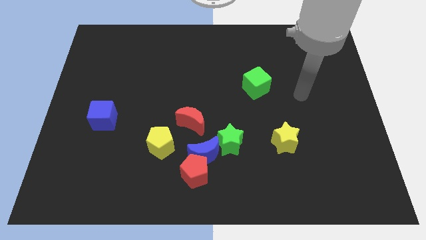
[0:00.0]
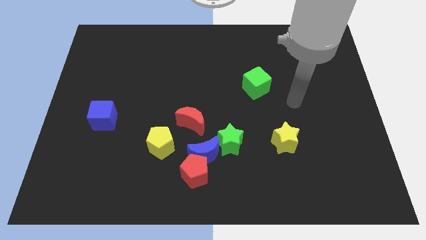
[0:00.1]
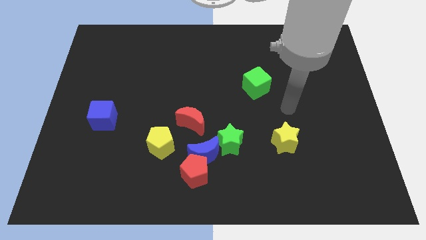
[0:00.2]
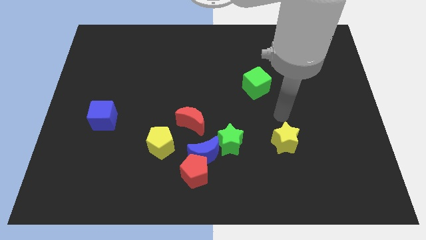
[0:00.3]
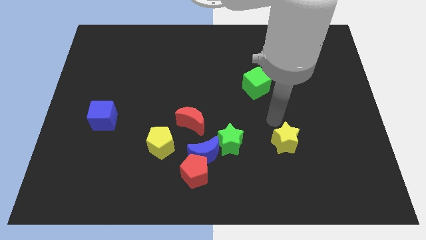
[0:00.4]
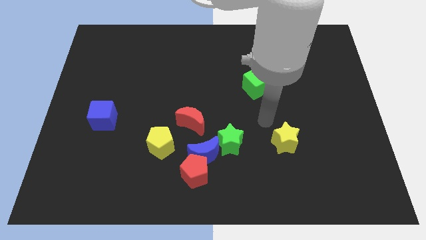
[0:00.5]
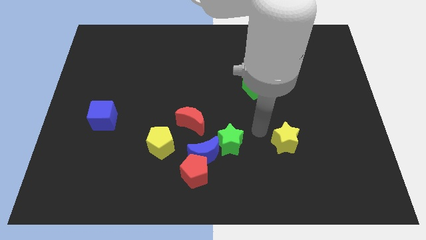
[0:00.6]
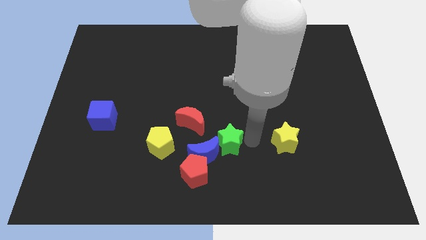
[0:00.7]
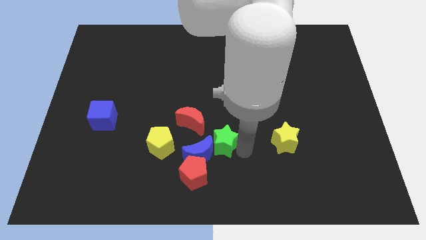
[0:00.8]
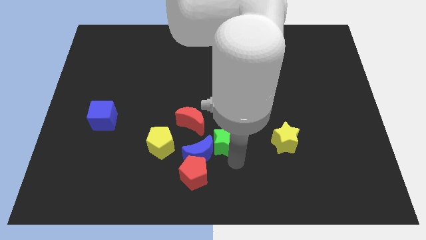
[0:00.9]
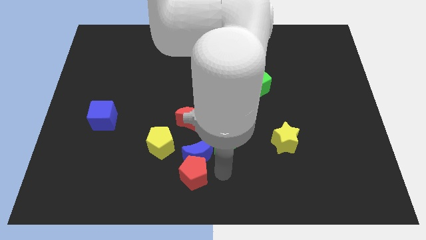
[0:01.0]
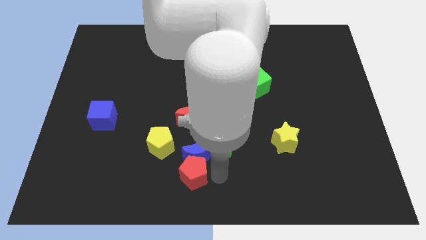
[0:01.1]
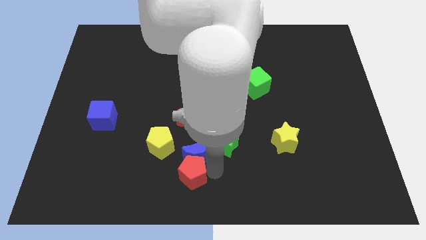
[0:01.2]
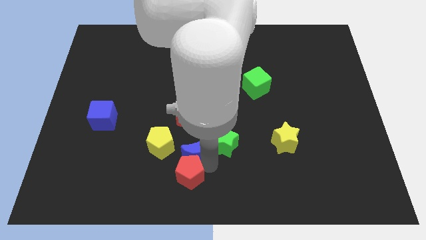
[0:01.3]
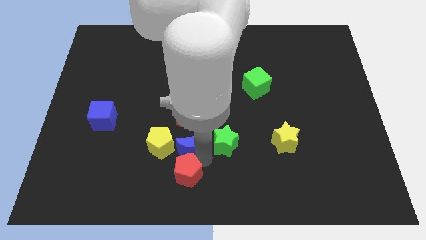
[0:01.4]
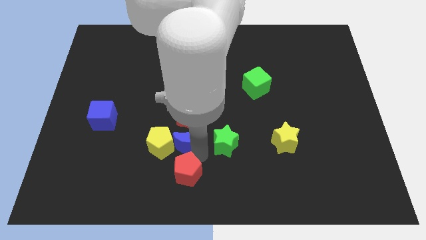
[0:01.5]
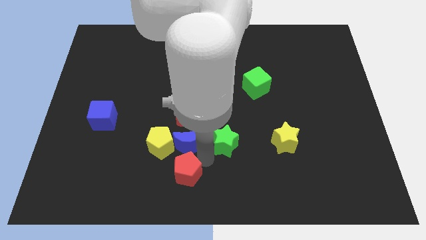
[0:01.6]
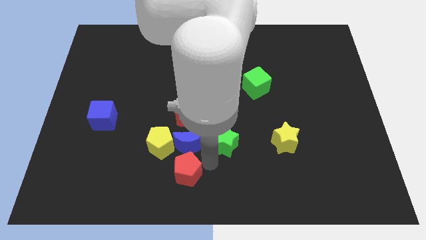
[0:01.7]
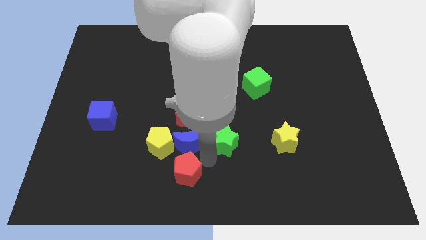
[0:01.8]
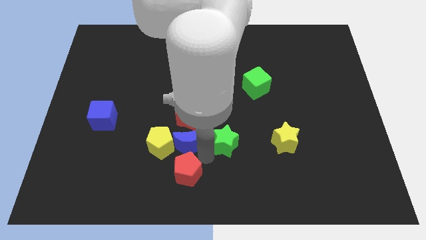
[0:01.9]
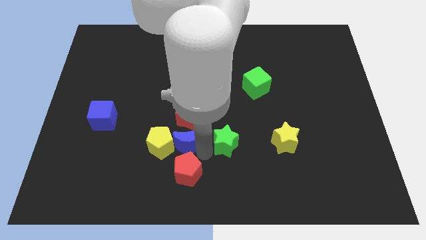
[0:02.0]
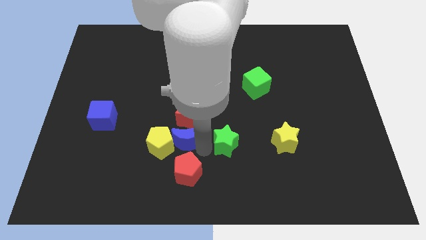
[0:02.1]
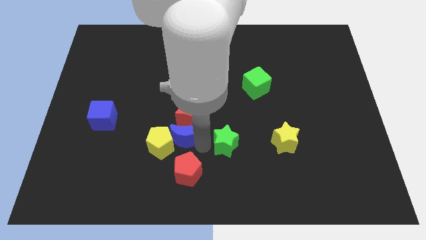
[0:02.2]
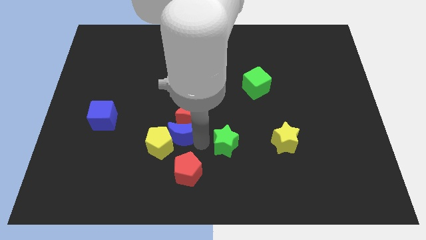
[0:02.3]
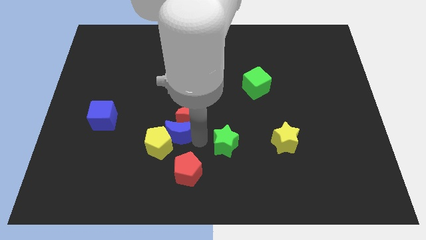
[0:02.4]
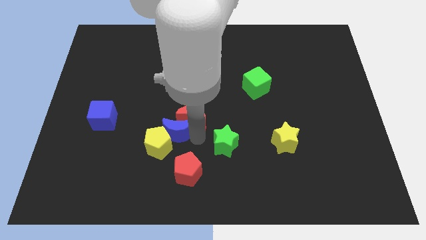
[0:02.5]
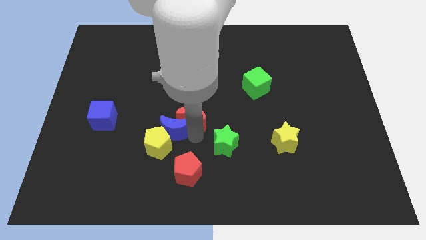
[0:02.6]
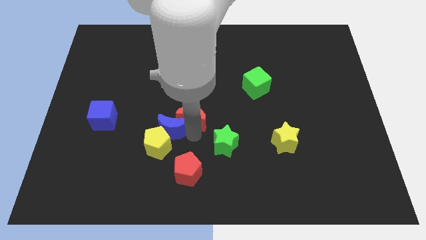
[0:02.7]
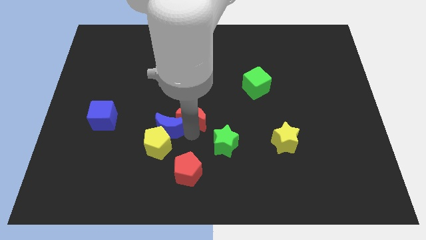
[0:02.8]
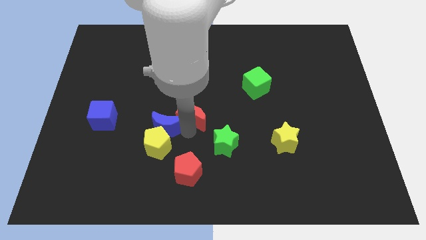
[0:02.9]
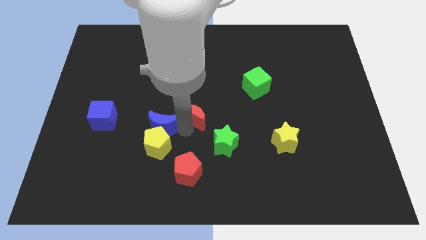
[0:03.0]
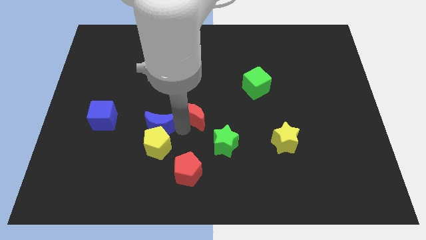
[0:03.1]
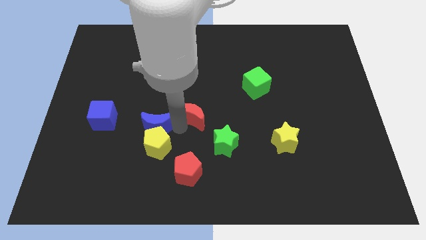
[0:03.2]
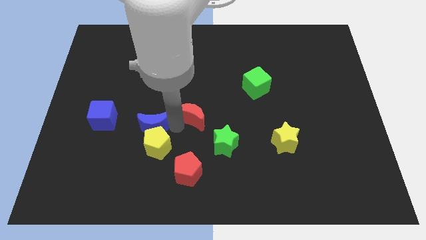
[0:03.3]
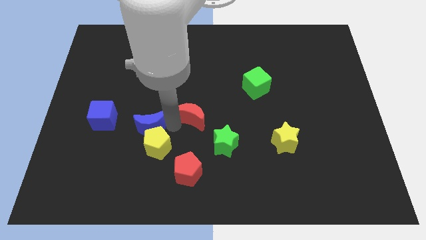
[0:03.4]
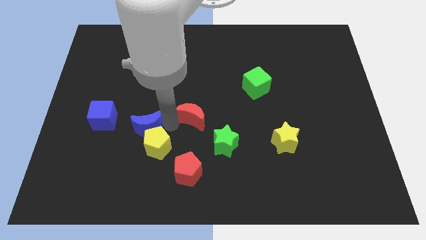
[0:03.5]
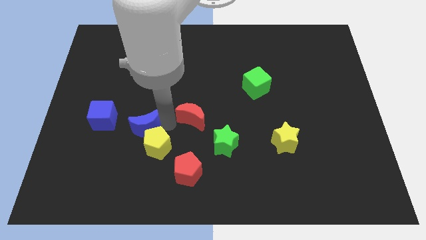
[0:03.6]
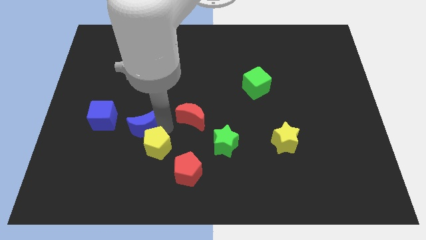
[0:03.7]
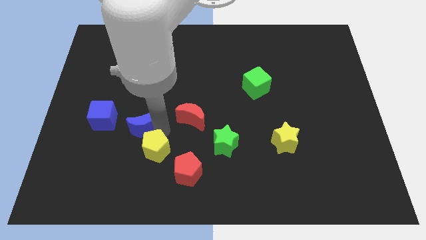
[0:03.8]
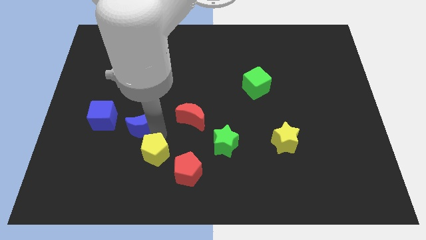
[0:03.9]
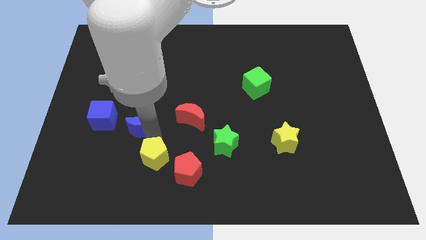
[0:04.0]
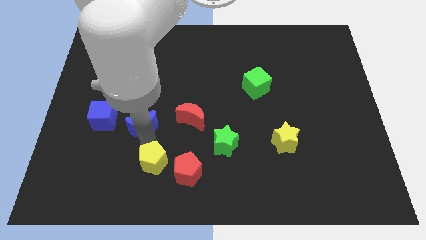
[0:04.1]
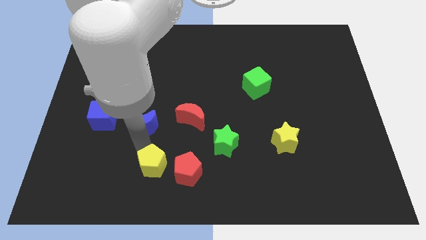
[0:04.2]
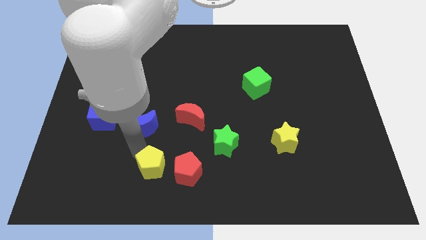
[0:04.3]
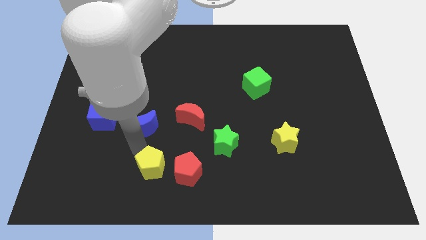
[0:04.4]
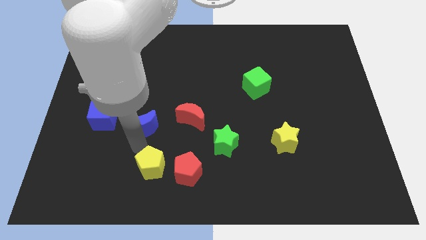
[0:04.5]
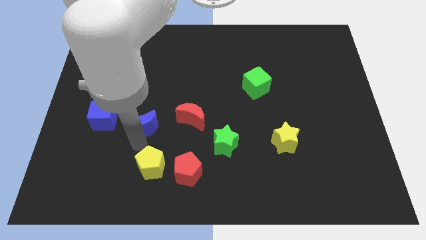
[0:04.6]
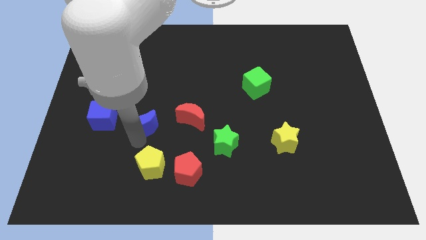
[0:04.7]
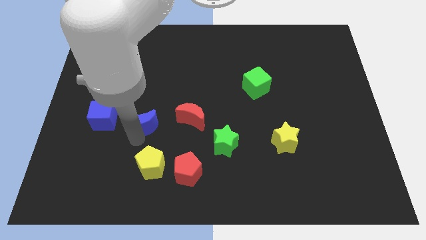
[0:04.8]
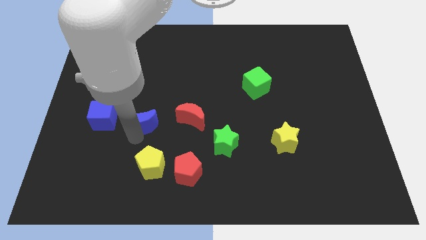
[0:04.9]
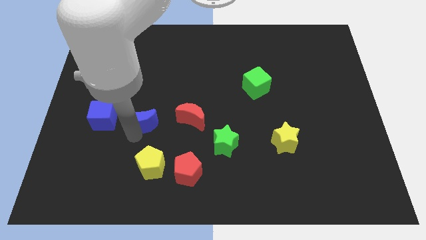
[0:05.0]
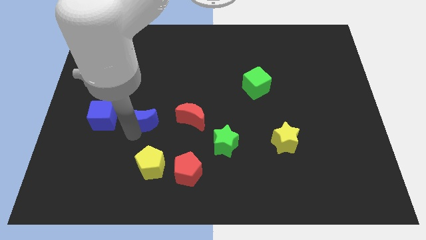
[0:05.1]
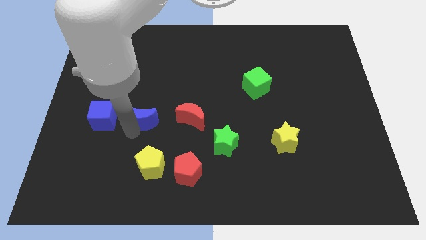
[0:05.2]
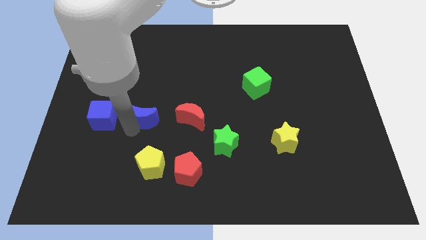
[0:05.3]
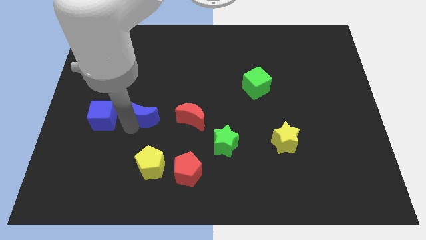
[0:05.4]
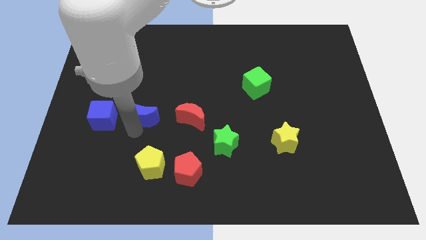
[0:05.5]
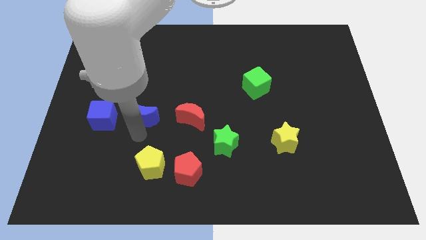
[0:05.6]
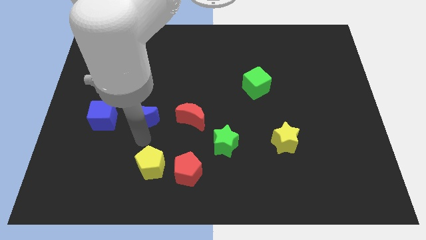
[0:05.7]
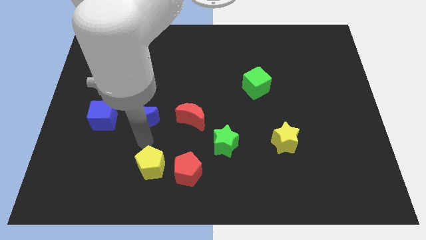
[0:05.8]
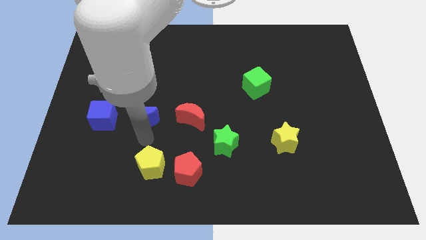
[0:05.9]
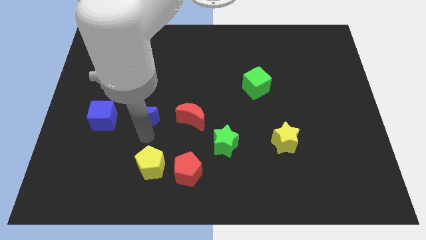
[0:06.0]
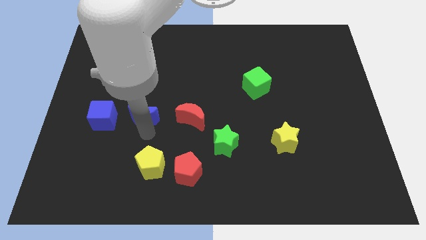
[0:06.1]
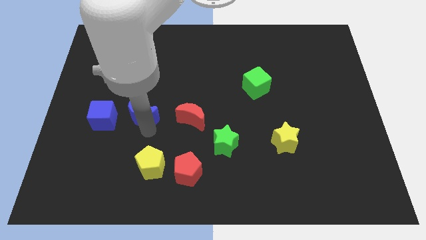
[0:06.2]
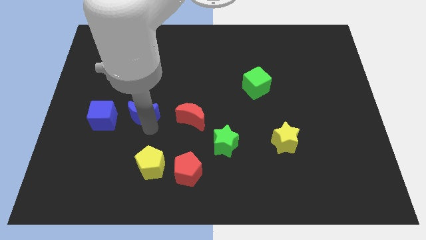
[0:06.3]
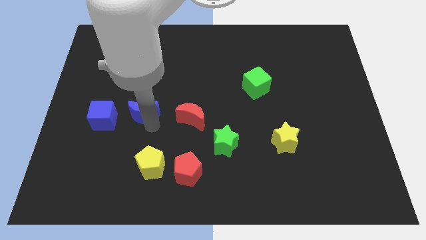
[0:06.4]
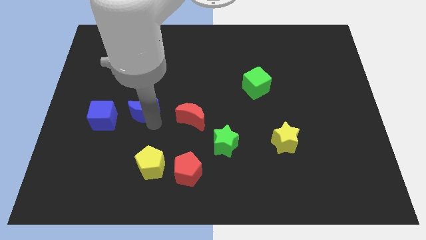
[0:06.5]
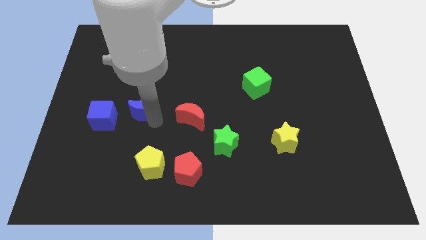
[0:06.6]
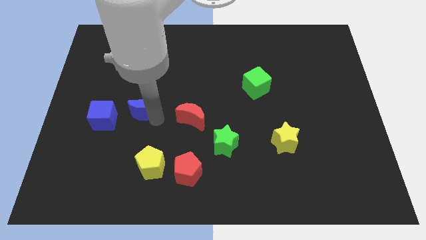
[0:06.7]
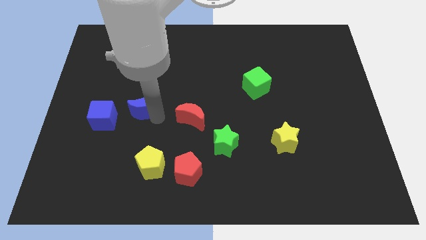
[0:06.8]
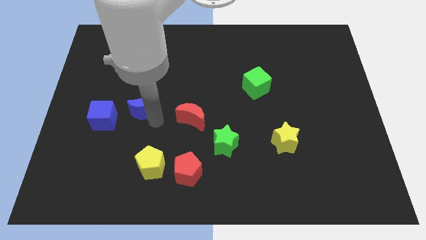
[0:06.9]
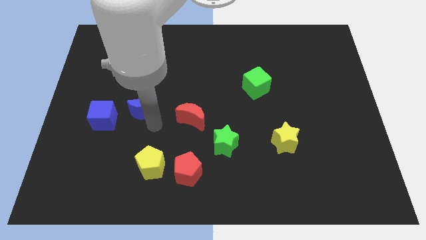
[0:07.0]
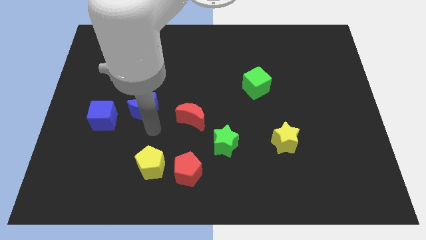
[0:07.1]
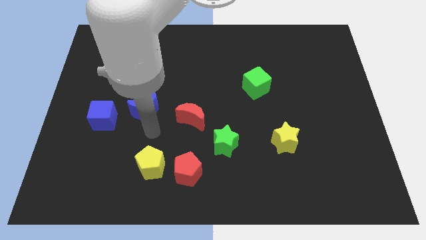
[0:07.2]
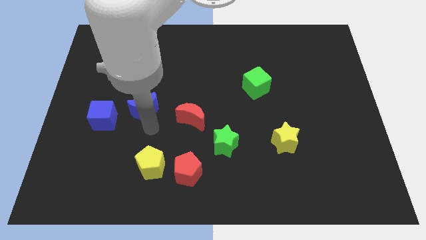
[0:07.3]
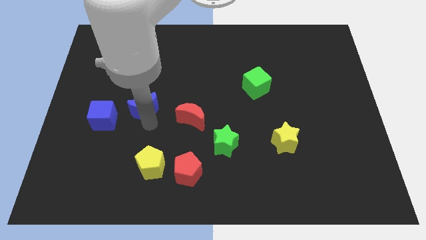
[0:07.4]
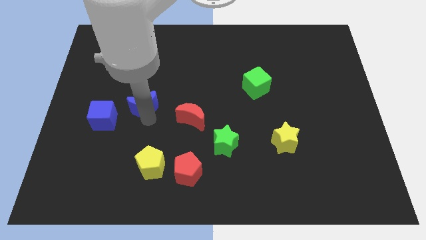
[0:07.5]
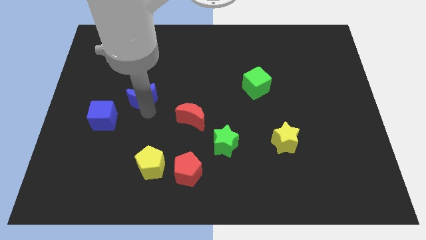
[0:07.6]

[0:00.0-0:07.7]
push the blue moon upwards and then left

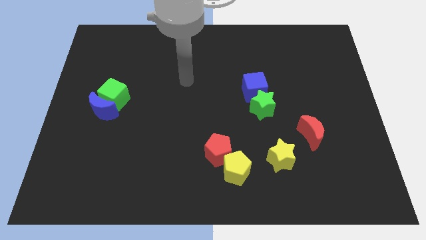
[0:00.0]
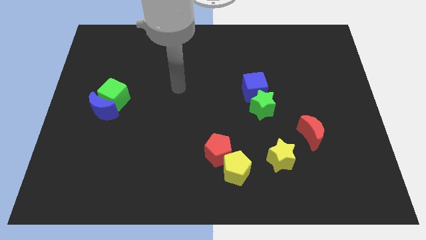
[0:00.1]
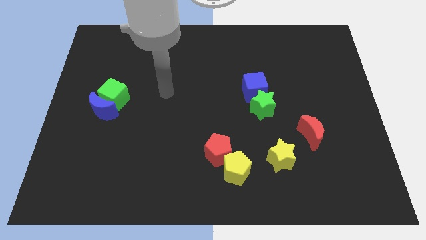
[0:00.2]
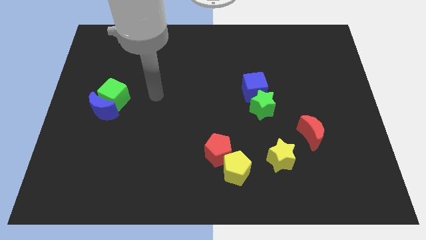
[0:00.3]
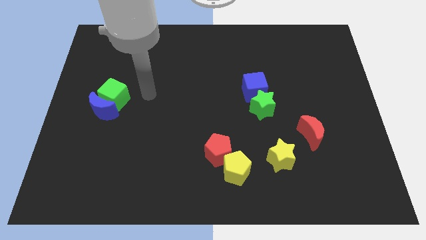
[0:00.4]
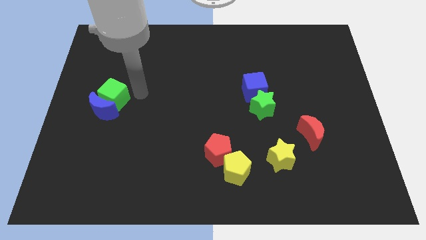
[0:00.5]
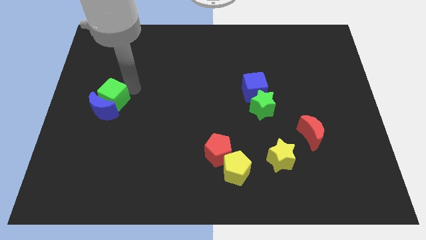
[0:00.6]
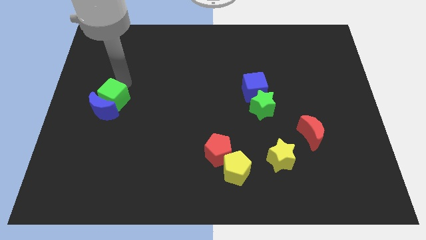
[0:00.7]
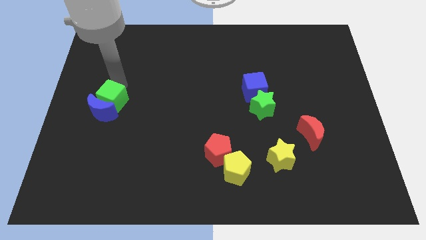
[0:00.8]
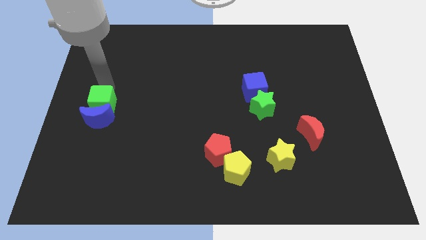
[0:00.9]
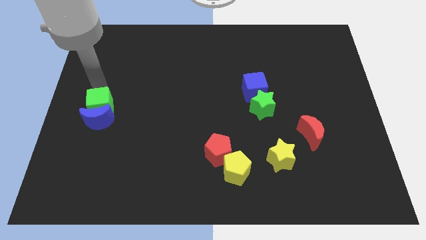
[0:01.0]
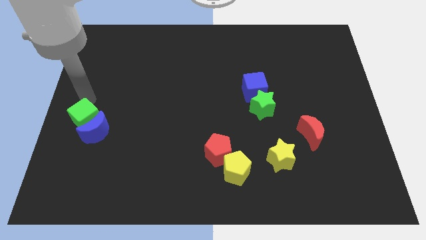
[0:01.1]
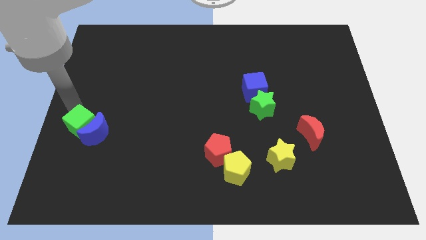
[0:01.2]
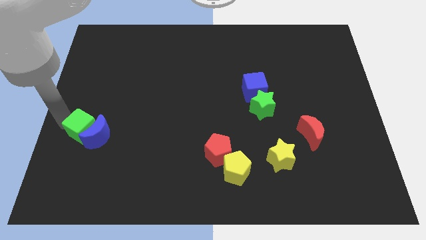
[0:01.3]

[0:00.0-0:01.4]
slide the green cube a bit downwards
